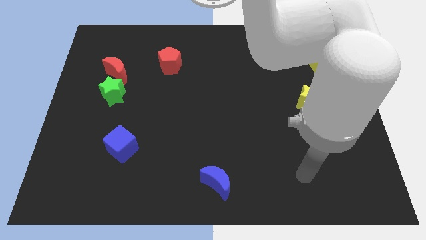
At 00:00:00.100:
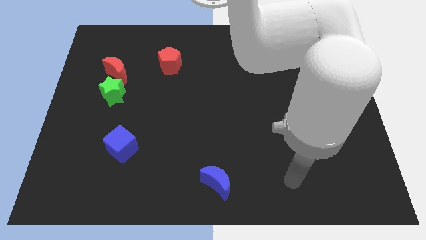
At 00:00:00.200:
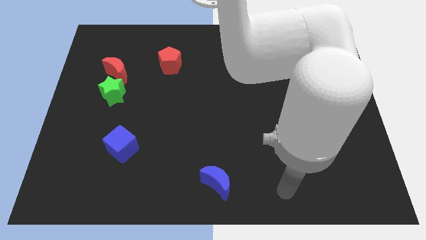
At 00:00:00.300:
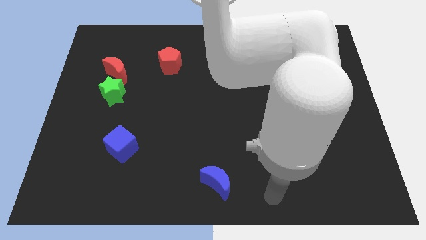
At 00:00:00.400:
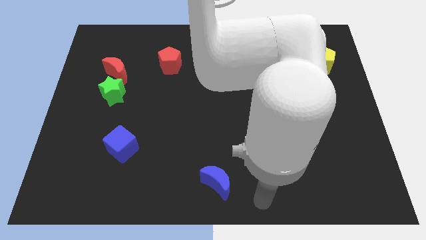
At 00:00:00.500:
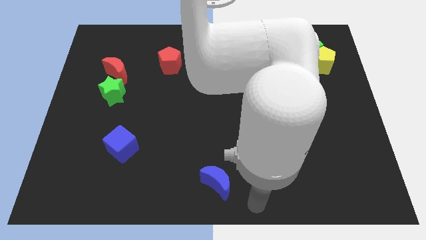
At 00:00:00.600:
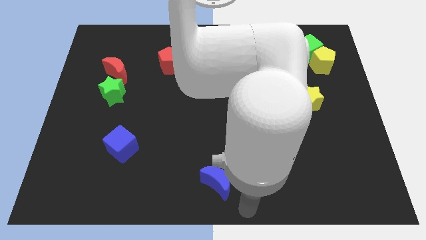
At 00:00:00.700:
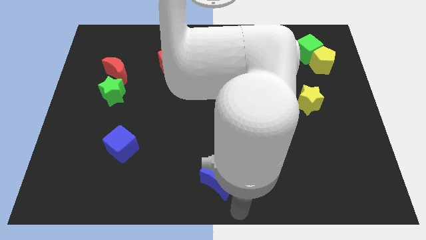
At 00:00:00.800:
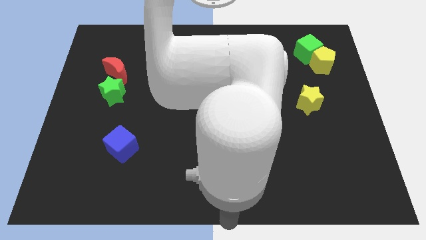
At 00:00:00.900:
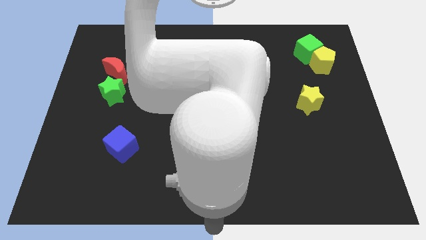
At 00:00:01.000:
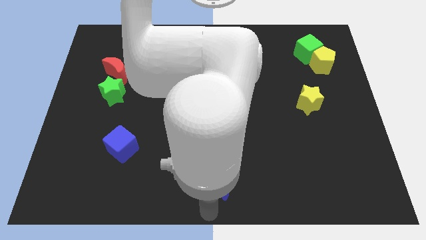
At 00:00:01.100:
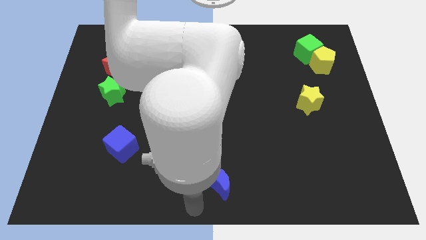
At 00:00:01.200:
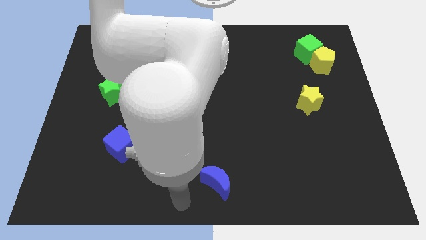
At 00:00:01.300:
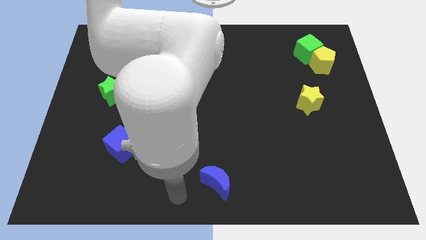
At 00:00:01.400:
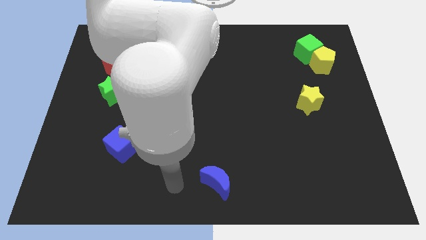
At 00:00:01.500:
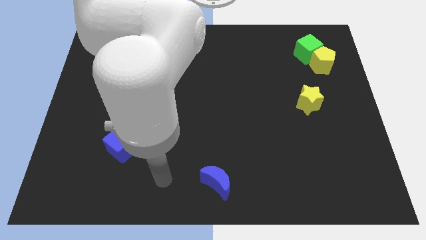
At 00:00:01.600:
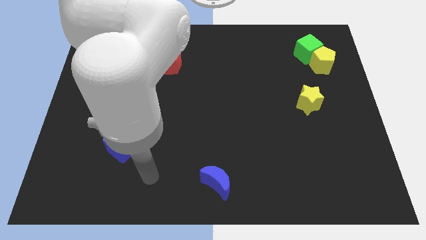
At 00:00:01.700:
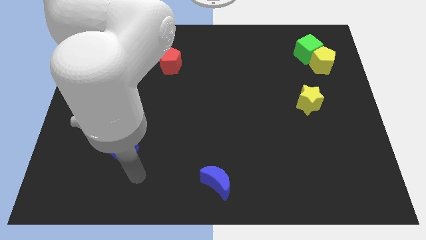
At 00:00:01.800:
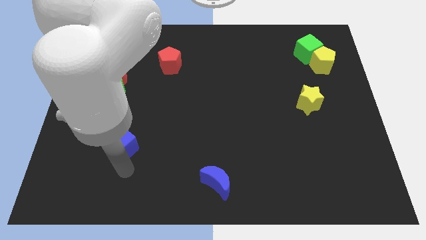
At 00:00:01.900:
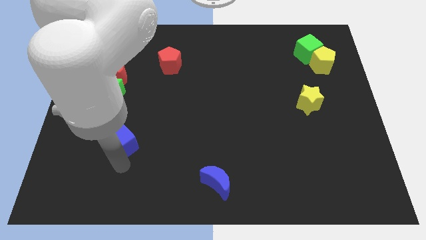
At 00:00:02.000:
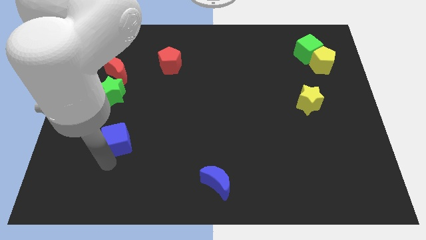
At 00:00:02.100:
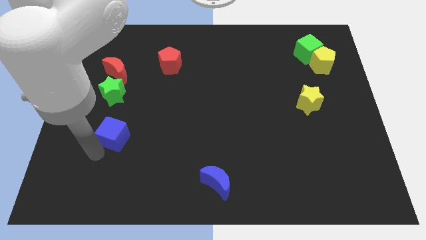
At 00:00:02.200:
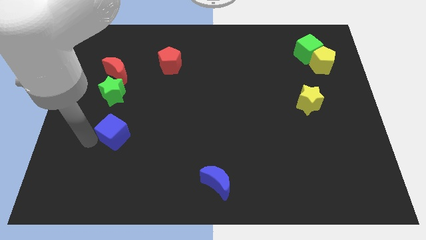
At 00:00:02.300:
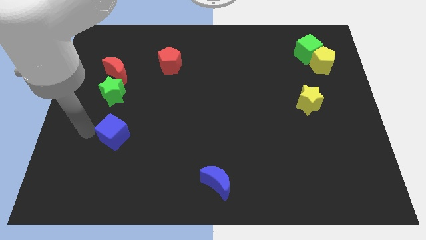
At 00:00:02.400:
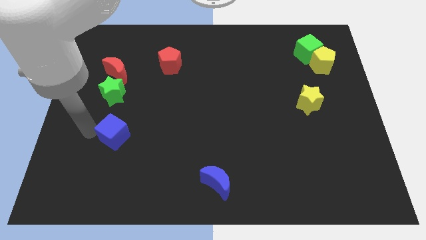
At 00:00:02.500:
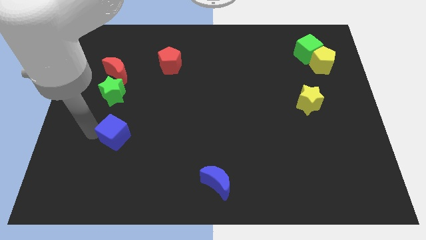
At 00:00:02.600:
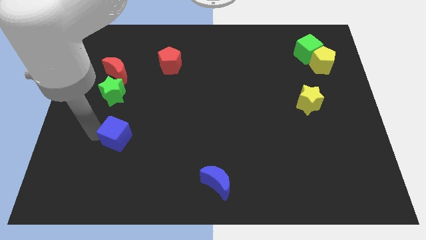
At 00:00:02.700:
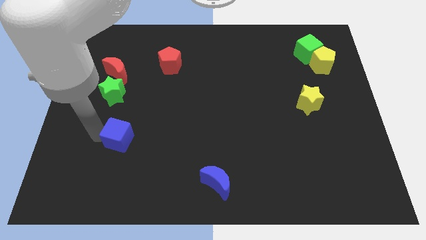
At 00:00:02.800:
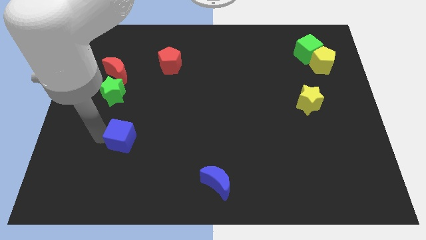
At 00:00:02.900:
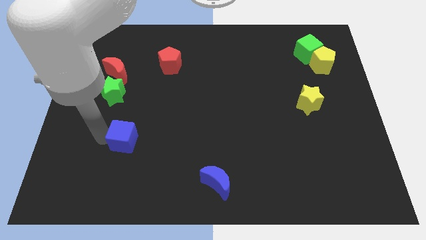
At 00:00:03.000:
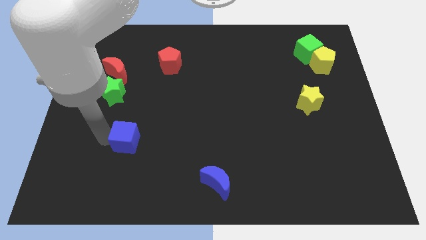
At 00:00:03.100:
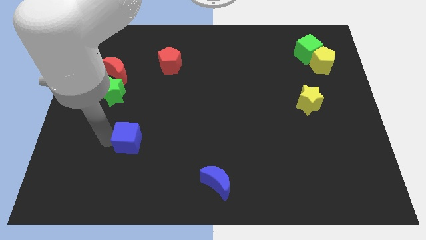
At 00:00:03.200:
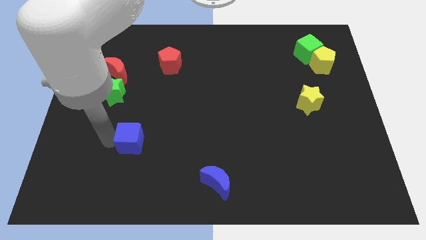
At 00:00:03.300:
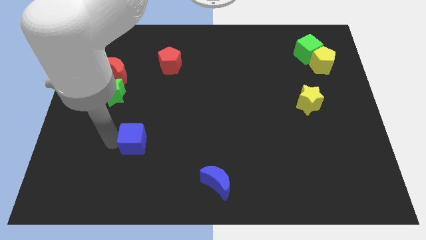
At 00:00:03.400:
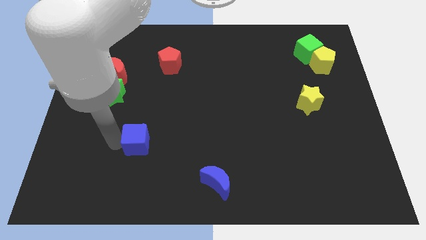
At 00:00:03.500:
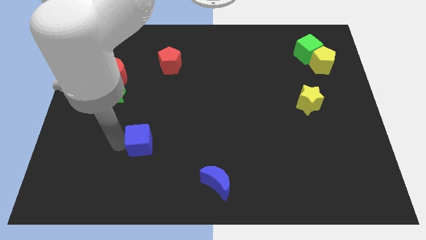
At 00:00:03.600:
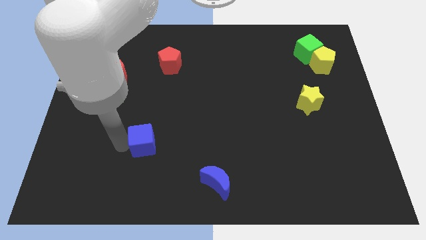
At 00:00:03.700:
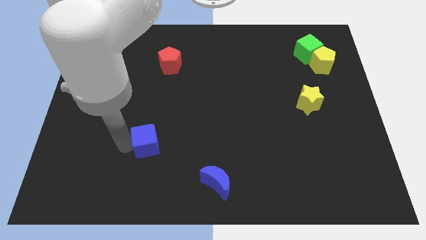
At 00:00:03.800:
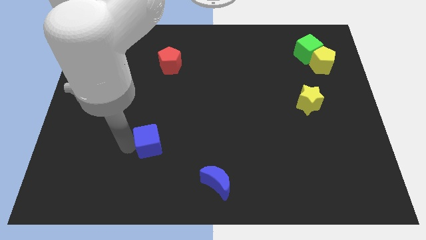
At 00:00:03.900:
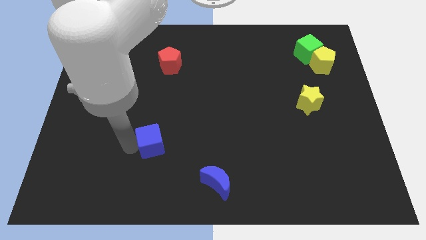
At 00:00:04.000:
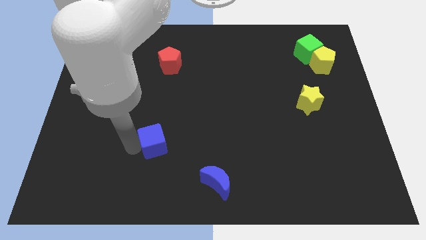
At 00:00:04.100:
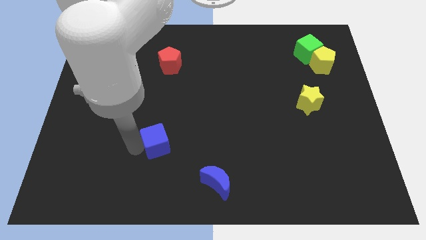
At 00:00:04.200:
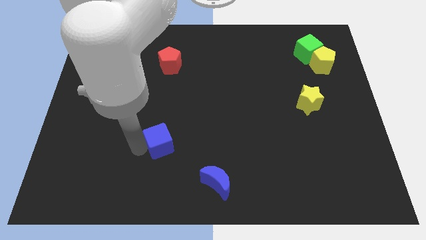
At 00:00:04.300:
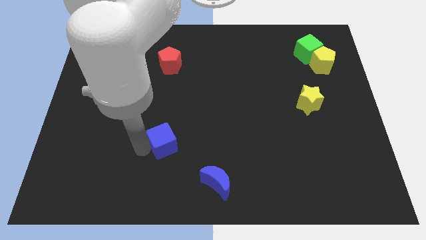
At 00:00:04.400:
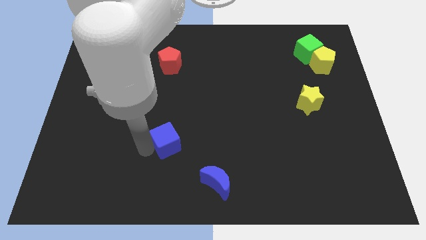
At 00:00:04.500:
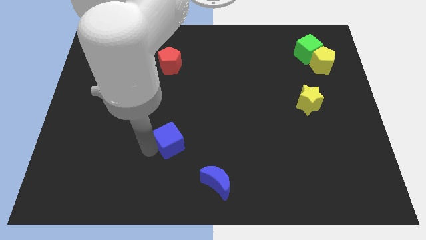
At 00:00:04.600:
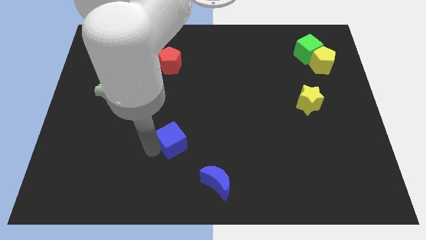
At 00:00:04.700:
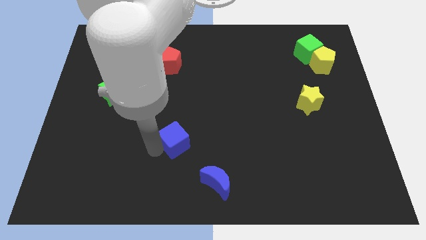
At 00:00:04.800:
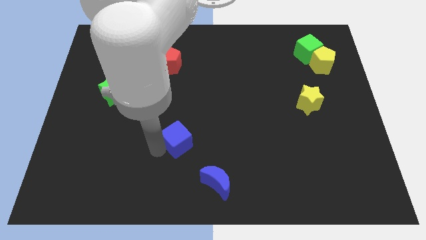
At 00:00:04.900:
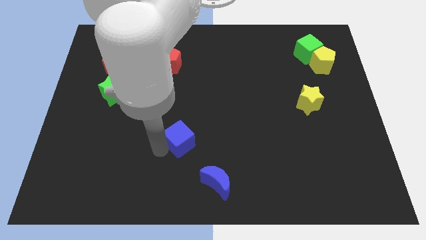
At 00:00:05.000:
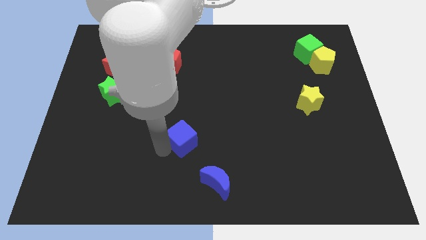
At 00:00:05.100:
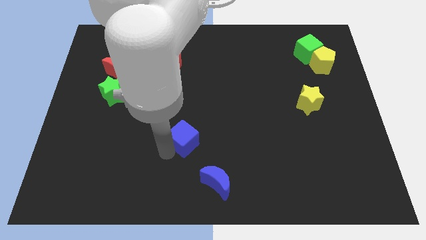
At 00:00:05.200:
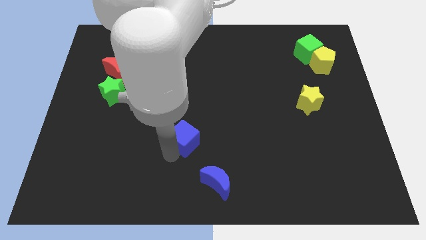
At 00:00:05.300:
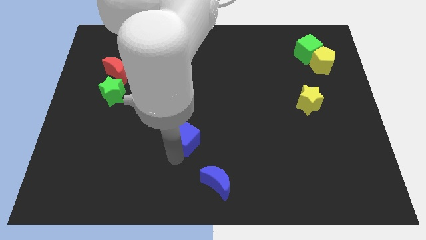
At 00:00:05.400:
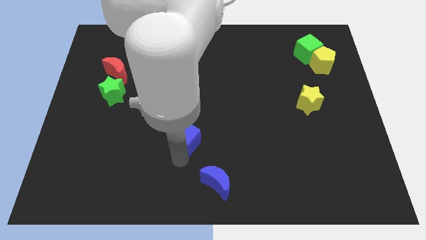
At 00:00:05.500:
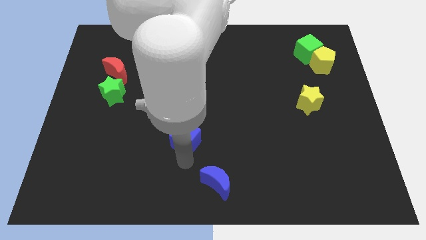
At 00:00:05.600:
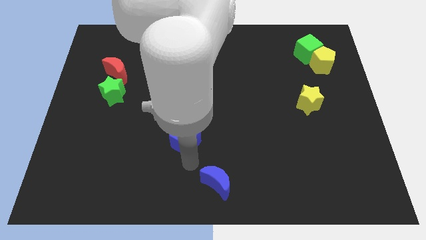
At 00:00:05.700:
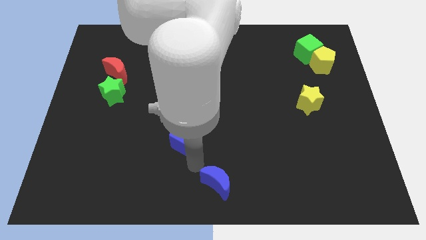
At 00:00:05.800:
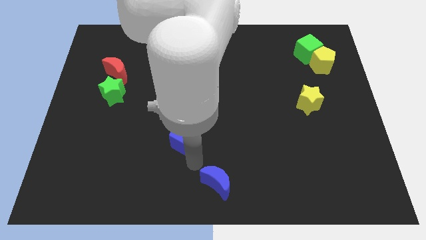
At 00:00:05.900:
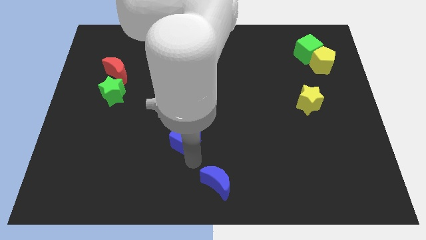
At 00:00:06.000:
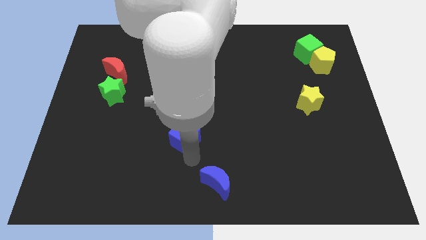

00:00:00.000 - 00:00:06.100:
put the blue cube to the center
